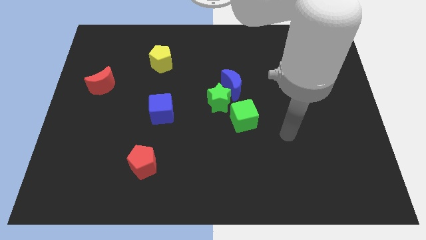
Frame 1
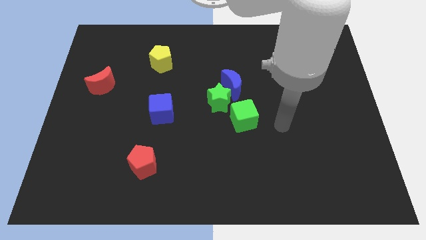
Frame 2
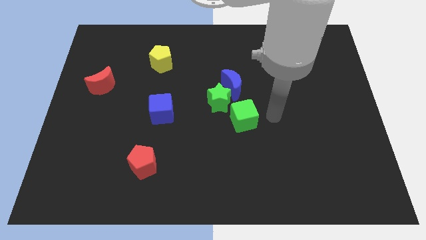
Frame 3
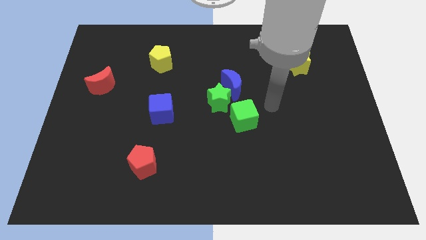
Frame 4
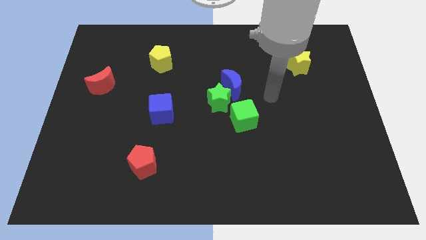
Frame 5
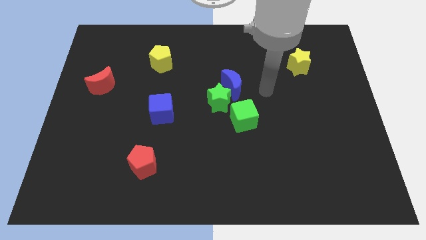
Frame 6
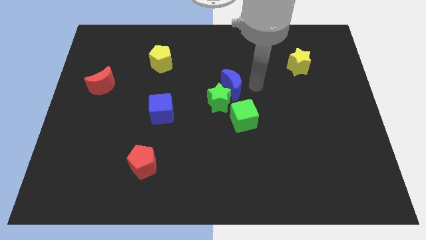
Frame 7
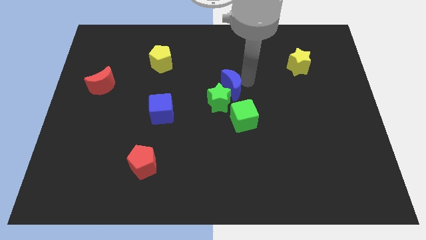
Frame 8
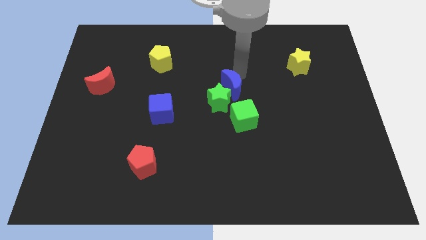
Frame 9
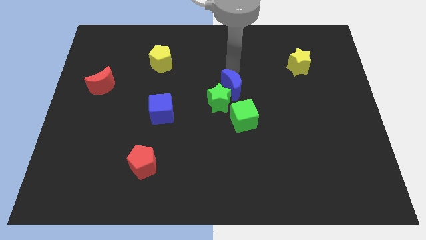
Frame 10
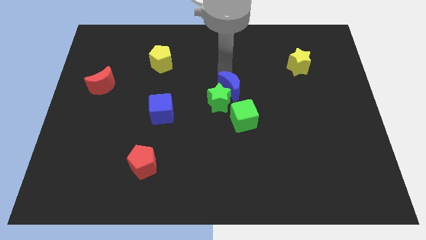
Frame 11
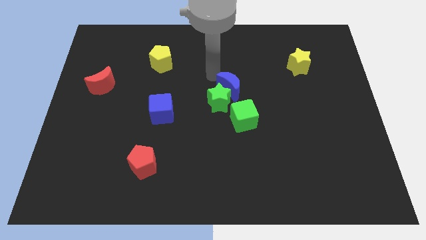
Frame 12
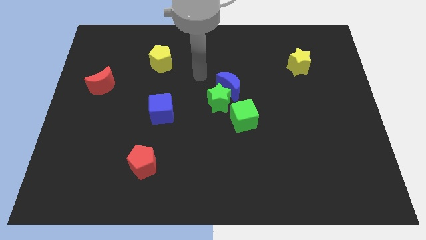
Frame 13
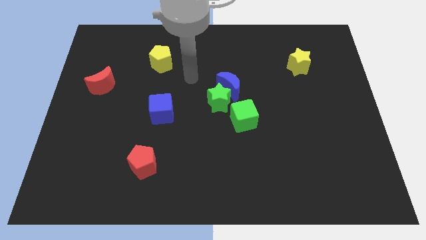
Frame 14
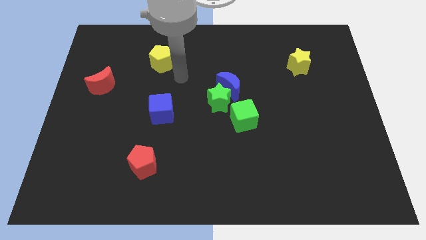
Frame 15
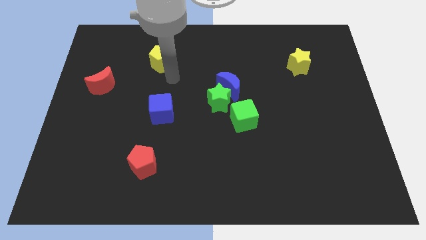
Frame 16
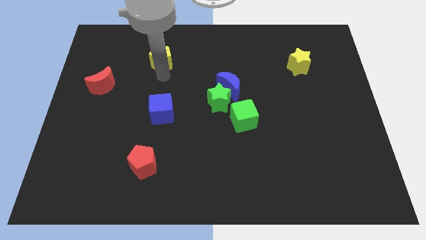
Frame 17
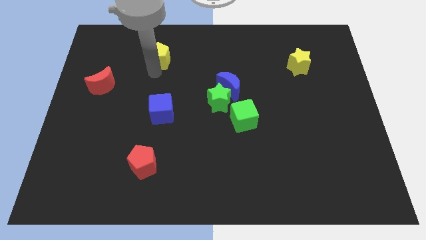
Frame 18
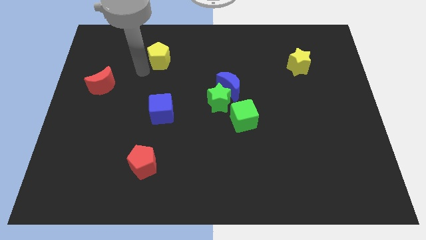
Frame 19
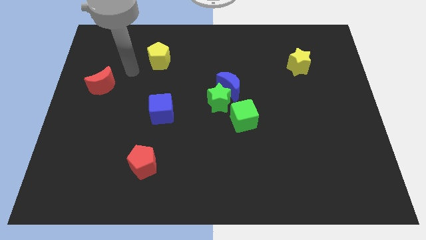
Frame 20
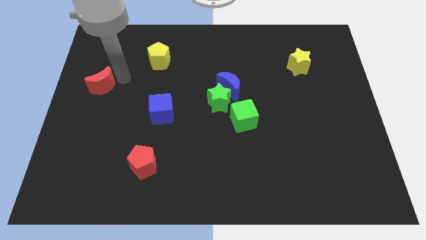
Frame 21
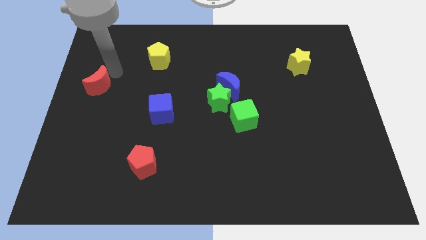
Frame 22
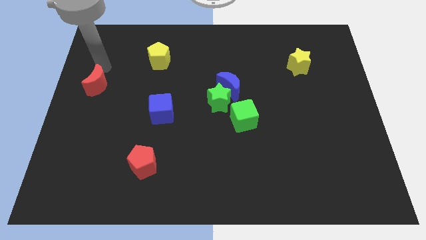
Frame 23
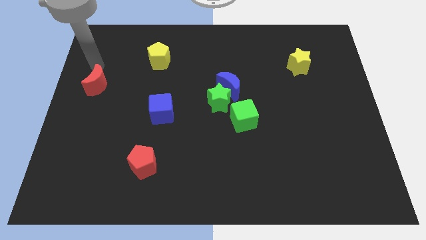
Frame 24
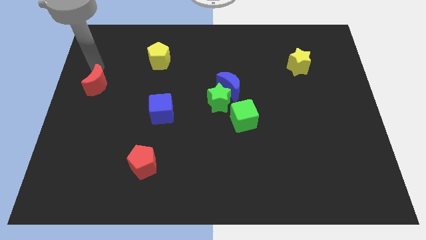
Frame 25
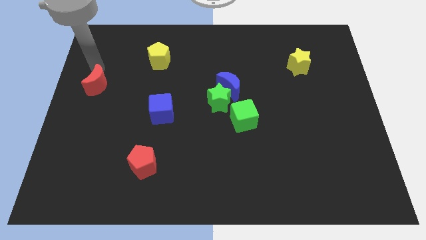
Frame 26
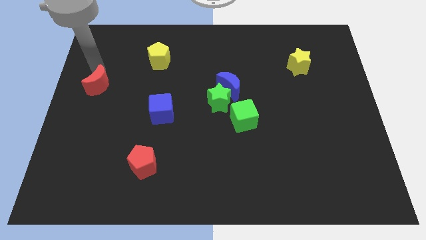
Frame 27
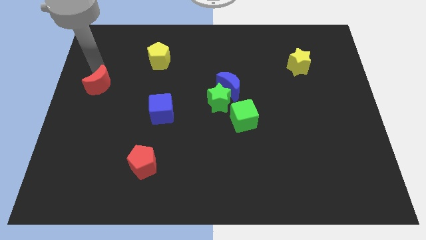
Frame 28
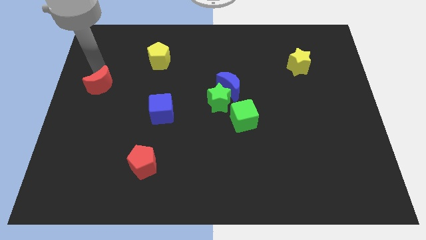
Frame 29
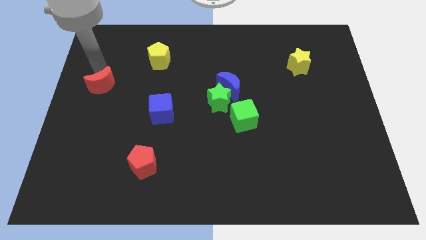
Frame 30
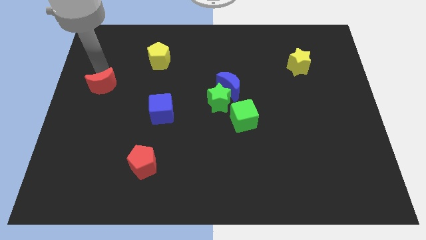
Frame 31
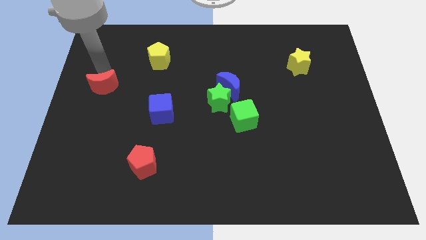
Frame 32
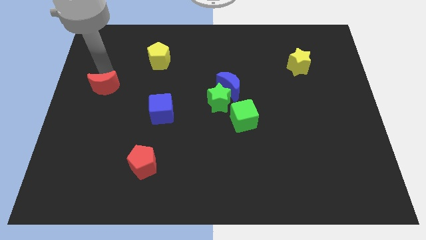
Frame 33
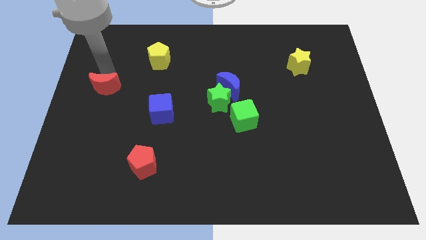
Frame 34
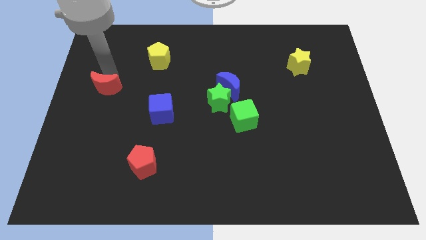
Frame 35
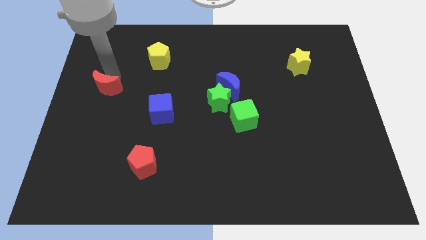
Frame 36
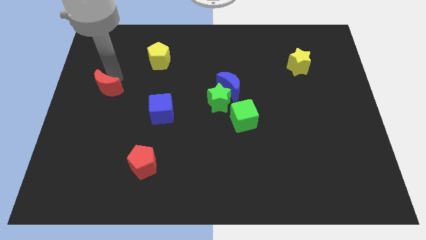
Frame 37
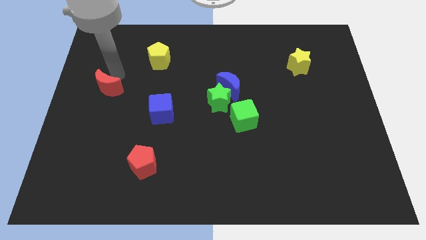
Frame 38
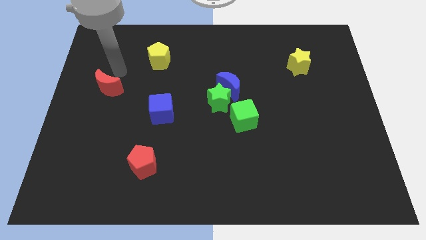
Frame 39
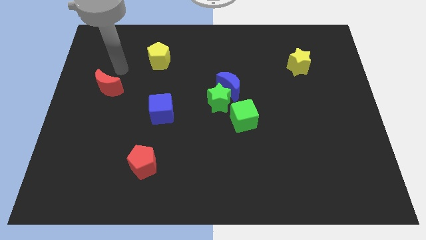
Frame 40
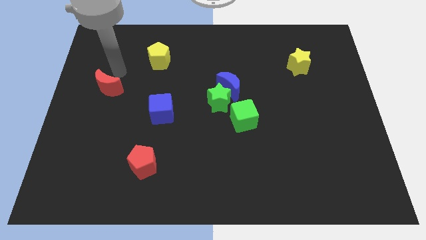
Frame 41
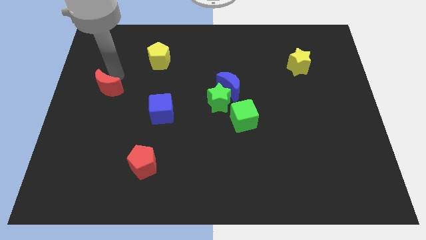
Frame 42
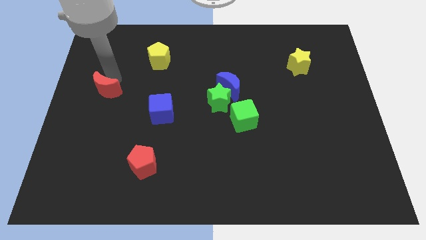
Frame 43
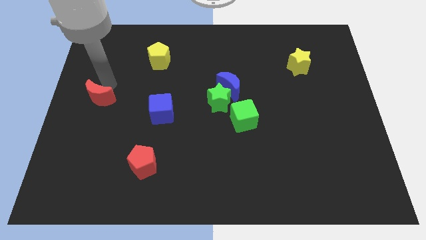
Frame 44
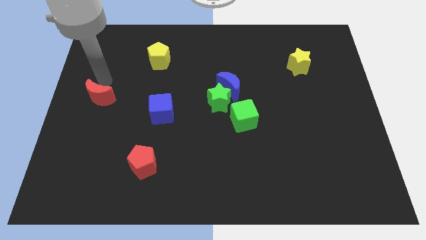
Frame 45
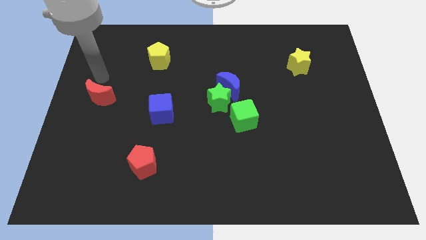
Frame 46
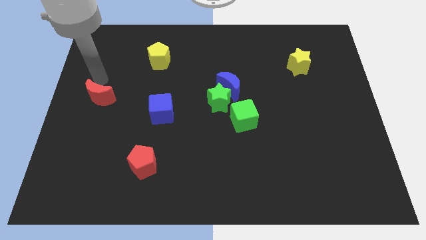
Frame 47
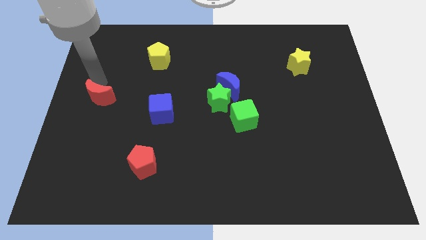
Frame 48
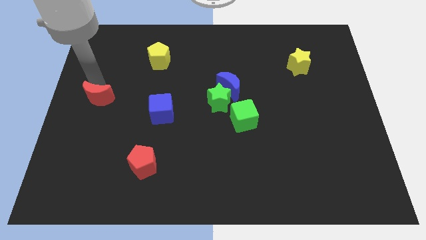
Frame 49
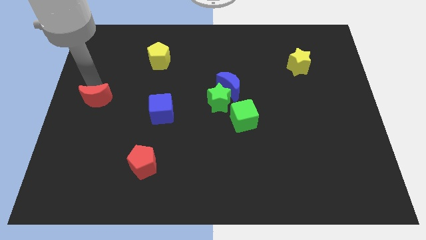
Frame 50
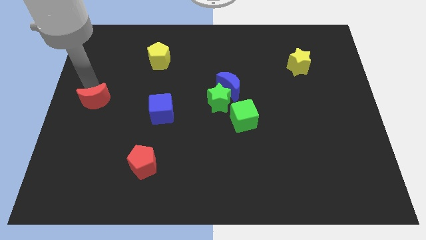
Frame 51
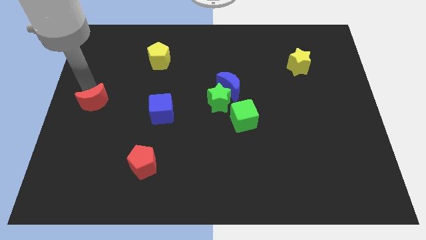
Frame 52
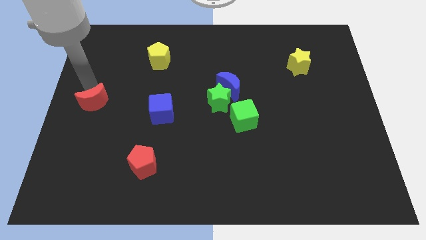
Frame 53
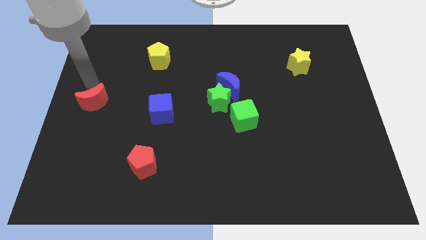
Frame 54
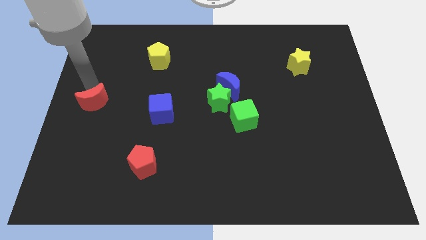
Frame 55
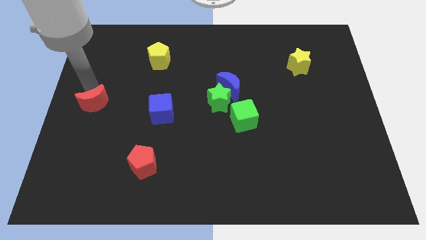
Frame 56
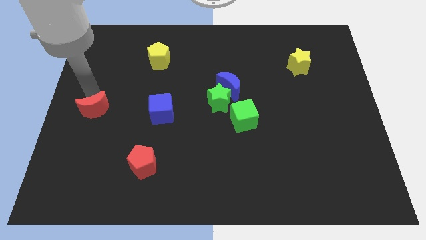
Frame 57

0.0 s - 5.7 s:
slightly push the red moon down

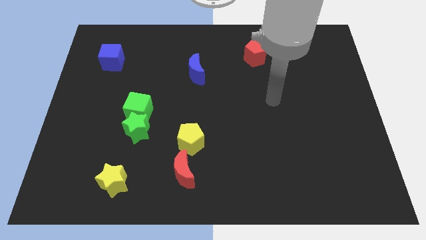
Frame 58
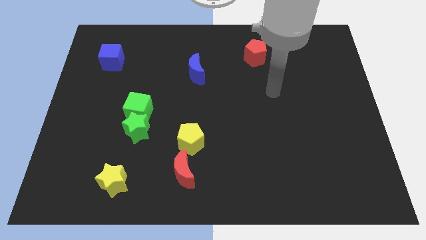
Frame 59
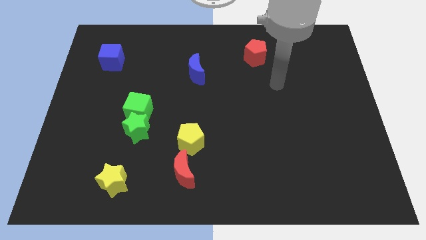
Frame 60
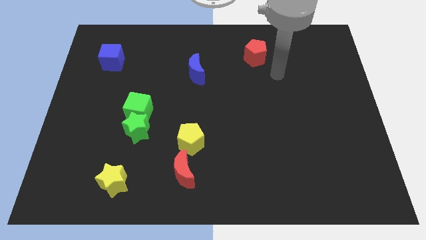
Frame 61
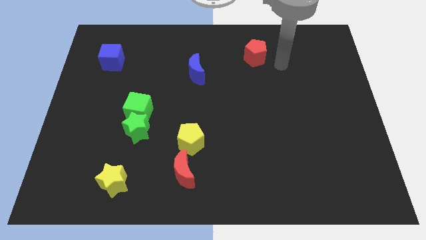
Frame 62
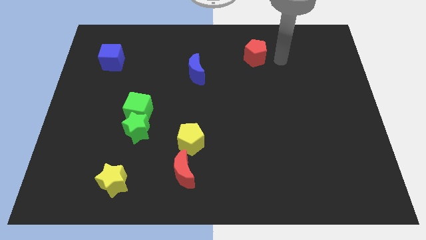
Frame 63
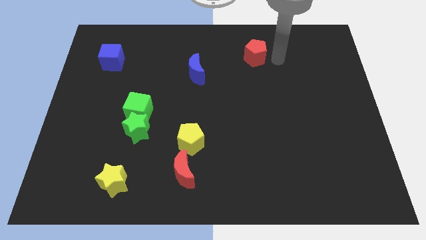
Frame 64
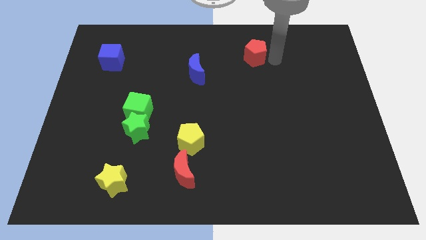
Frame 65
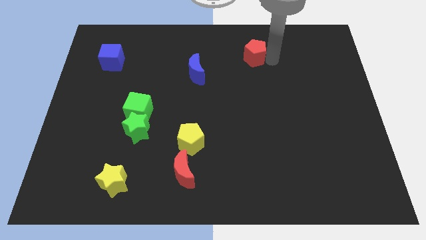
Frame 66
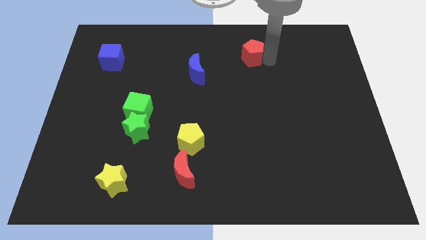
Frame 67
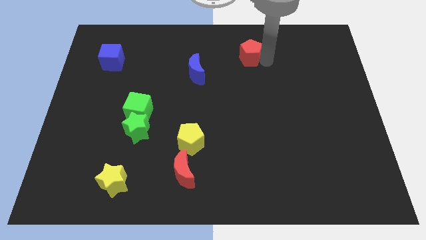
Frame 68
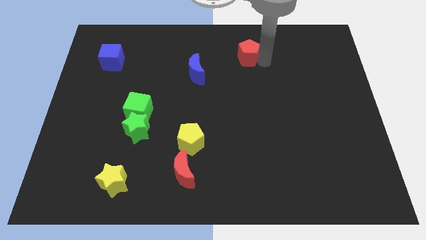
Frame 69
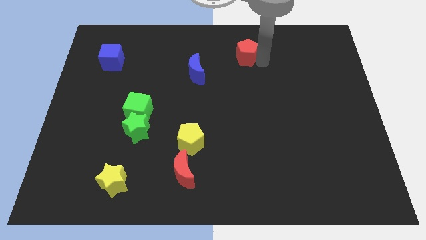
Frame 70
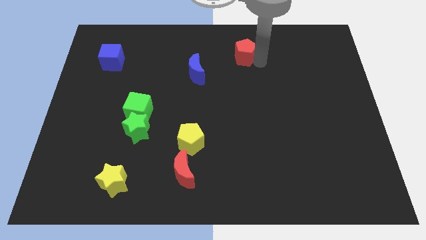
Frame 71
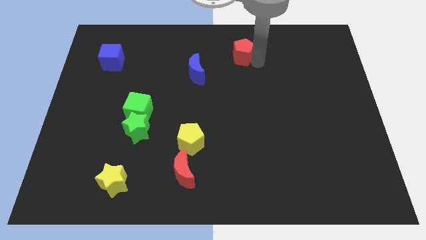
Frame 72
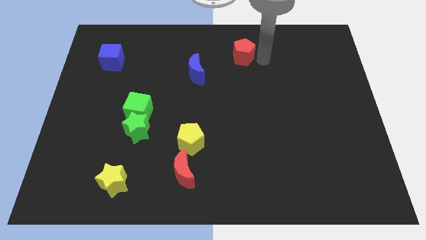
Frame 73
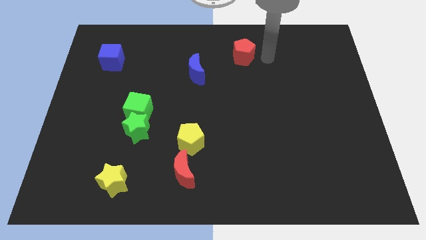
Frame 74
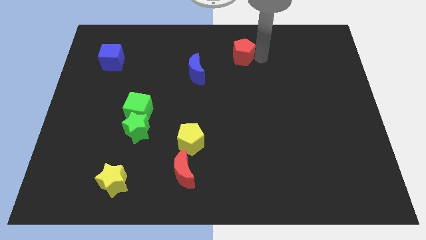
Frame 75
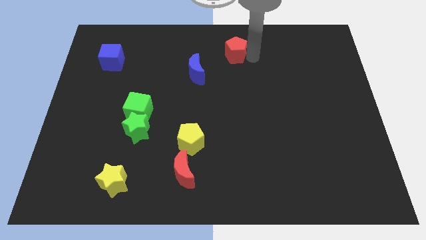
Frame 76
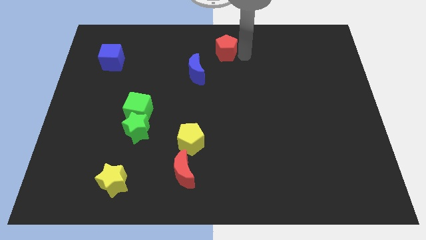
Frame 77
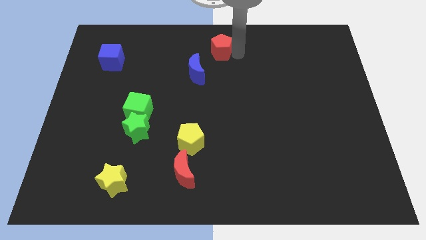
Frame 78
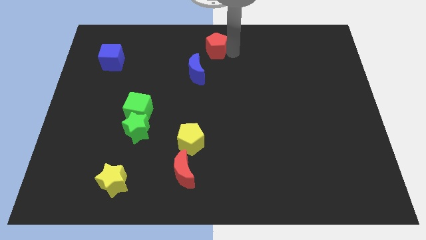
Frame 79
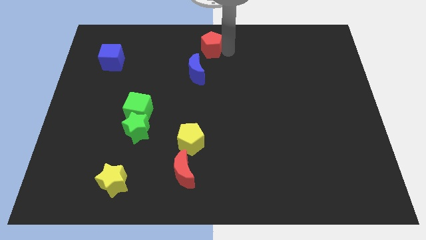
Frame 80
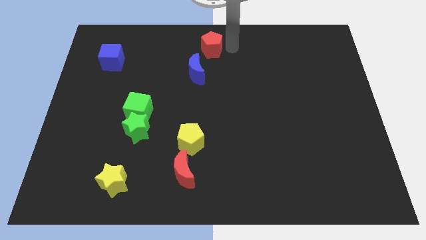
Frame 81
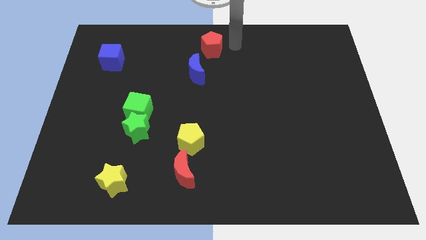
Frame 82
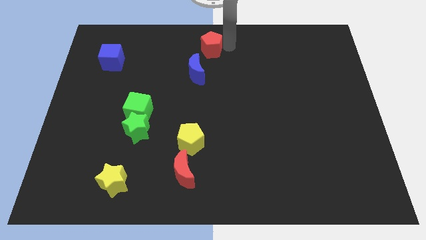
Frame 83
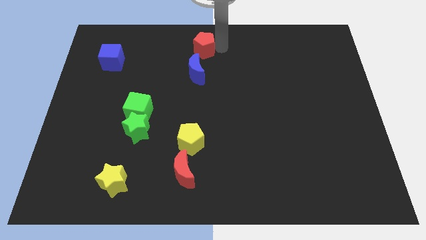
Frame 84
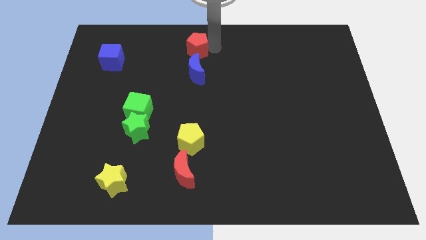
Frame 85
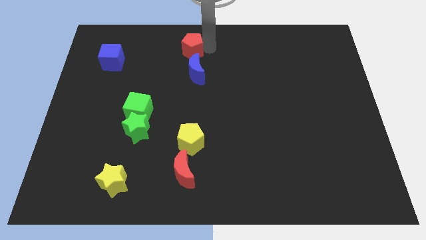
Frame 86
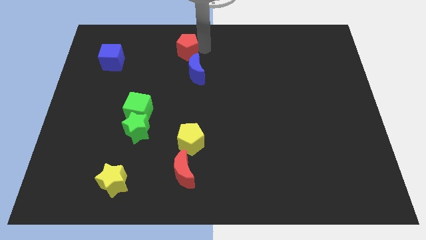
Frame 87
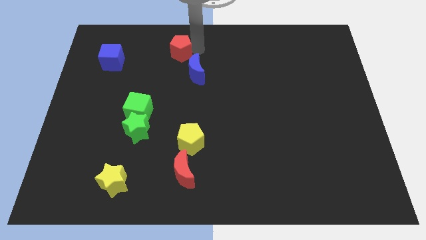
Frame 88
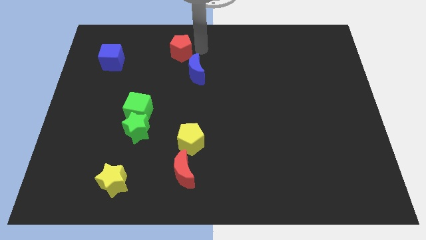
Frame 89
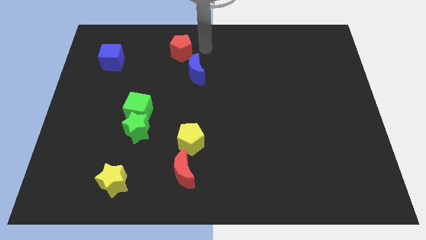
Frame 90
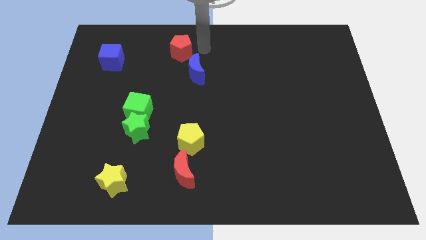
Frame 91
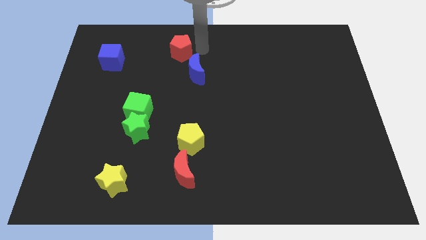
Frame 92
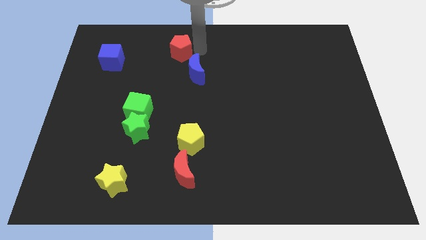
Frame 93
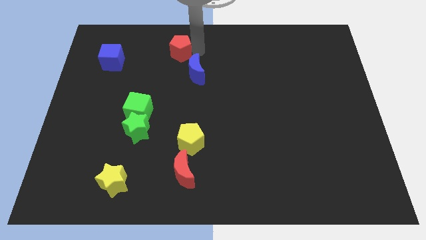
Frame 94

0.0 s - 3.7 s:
push the red pentagon to the left
